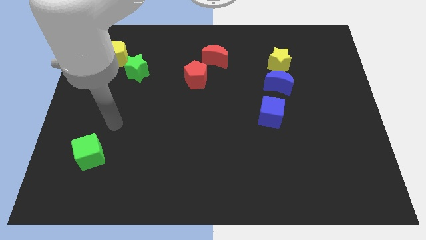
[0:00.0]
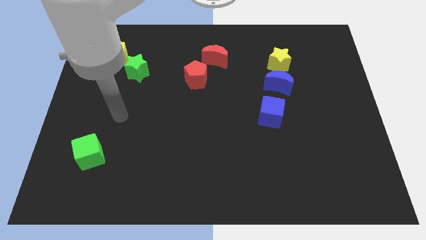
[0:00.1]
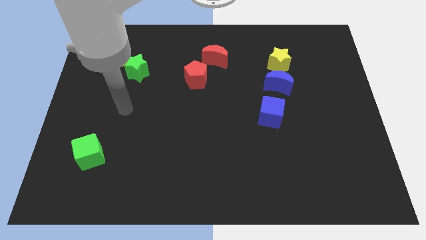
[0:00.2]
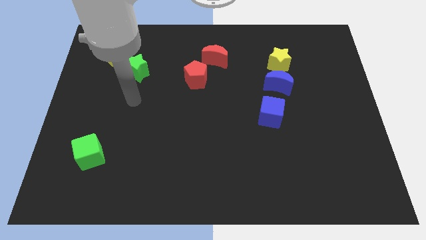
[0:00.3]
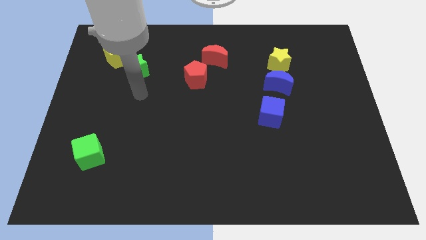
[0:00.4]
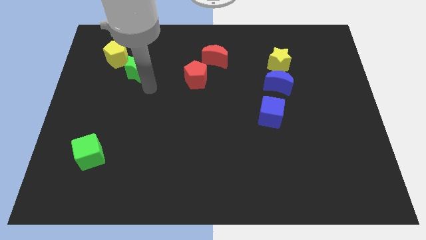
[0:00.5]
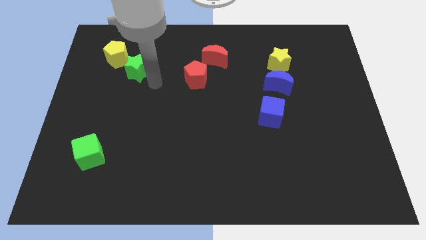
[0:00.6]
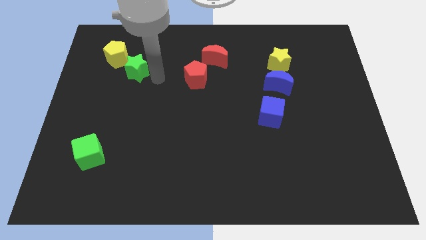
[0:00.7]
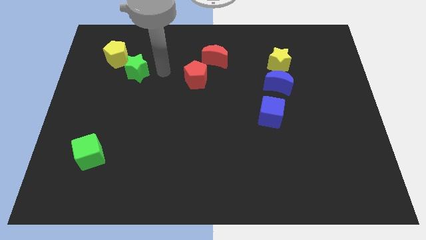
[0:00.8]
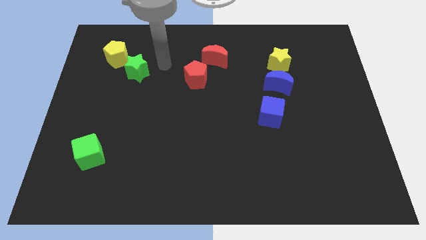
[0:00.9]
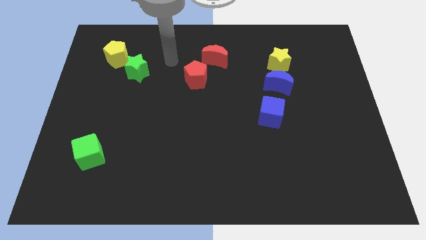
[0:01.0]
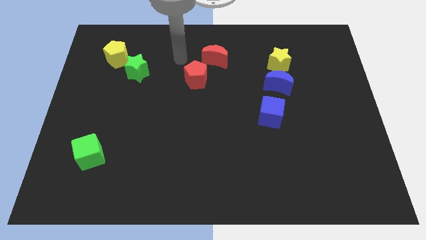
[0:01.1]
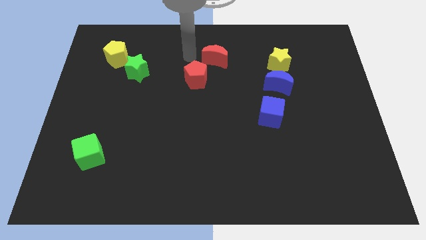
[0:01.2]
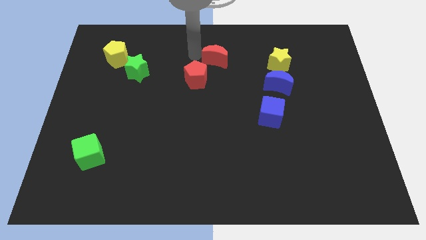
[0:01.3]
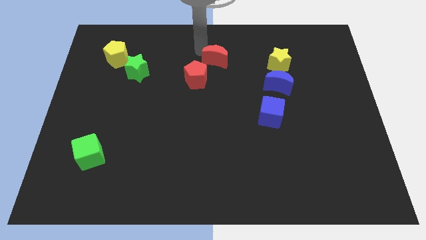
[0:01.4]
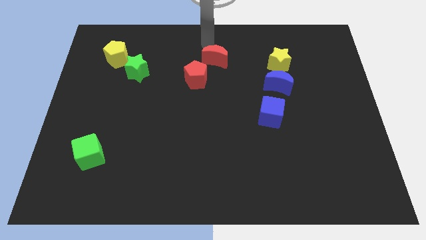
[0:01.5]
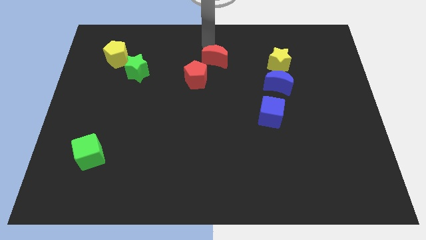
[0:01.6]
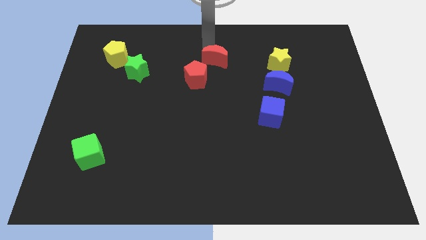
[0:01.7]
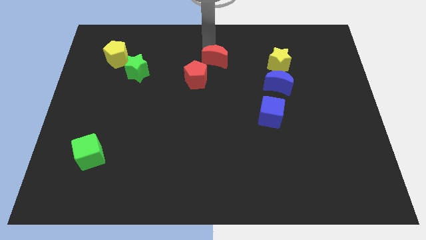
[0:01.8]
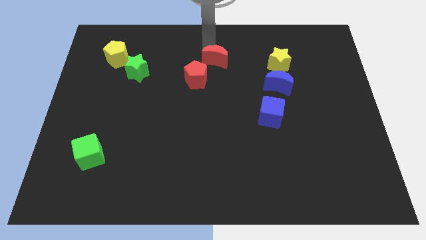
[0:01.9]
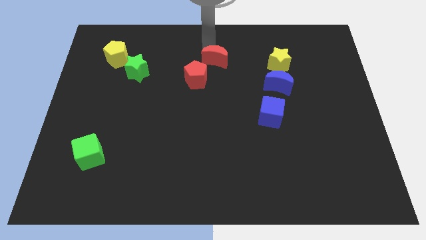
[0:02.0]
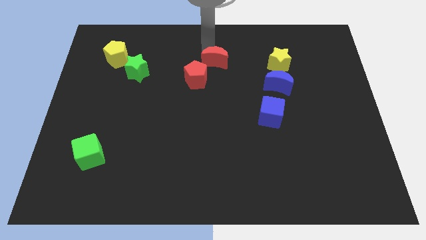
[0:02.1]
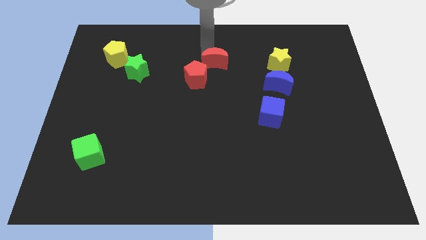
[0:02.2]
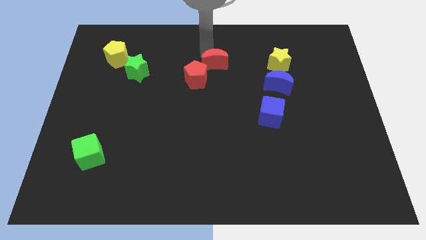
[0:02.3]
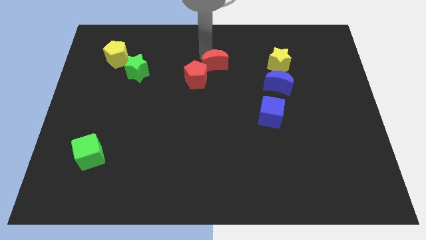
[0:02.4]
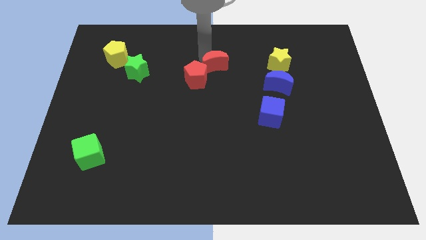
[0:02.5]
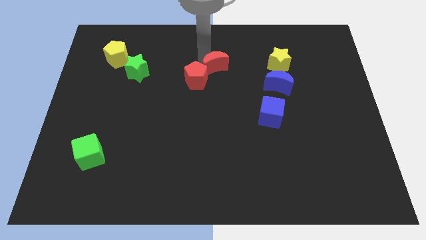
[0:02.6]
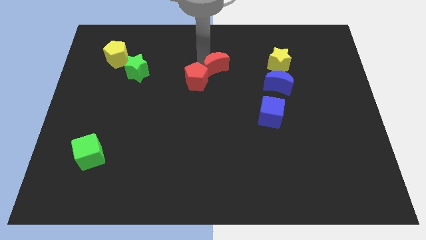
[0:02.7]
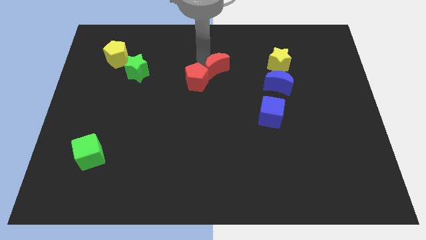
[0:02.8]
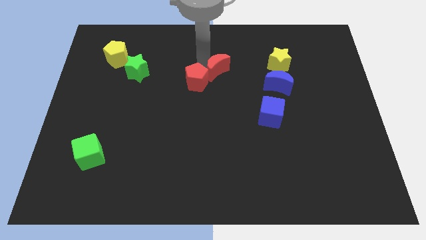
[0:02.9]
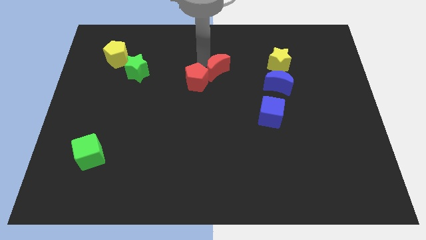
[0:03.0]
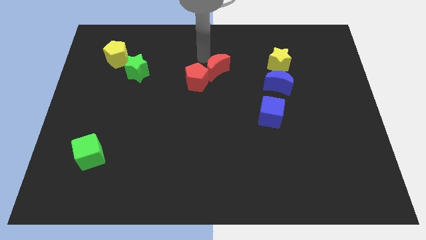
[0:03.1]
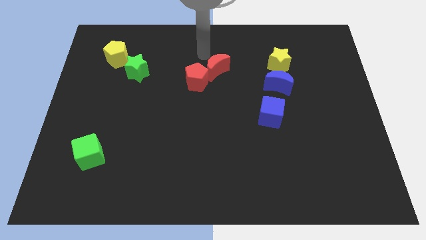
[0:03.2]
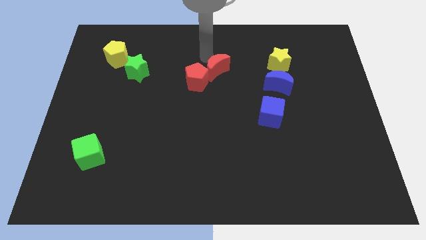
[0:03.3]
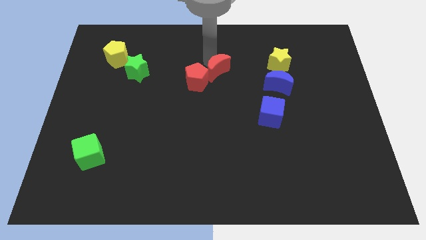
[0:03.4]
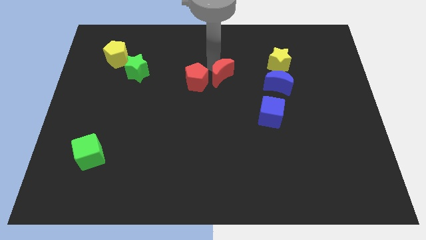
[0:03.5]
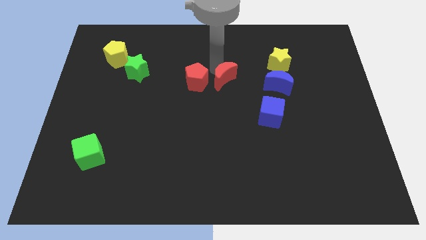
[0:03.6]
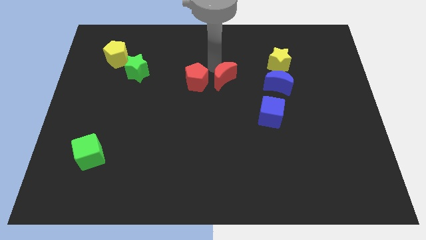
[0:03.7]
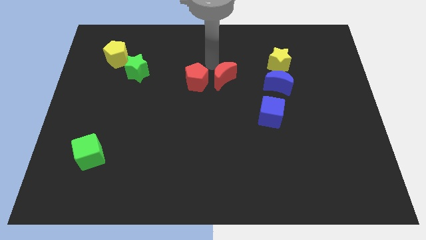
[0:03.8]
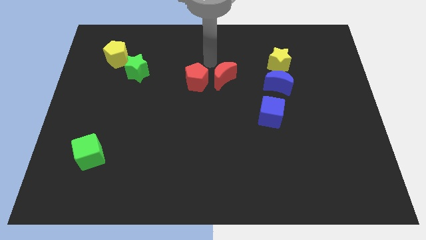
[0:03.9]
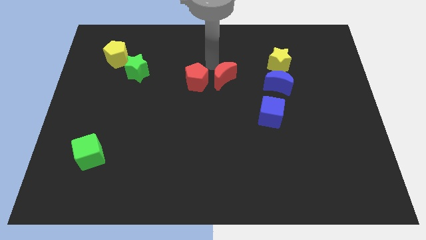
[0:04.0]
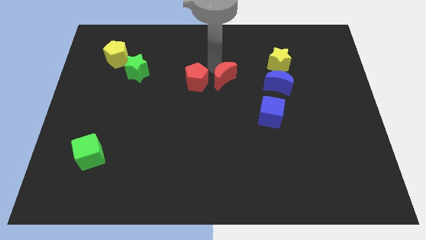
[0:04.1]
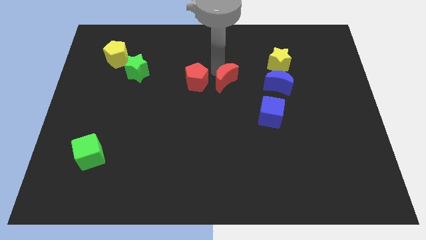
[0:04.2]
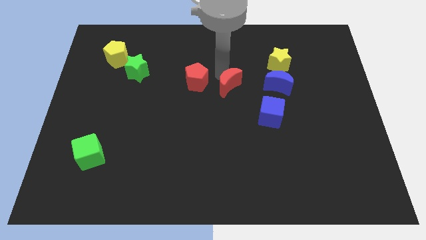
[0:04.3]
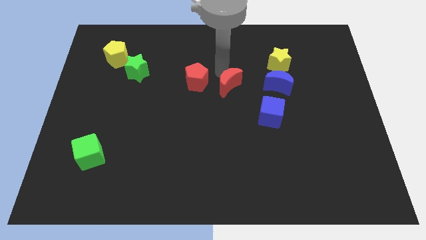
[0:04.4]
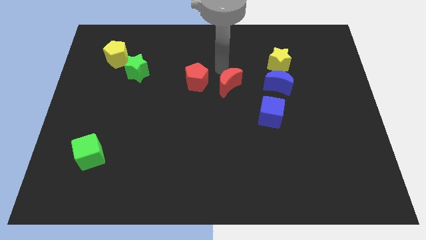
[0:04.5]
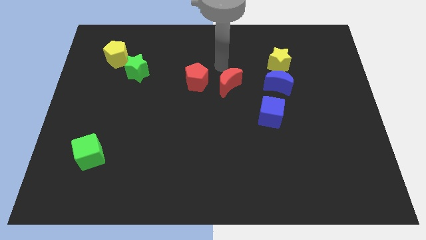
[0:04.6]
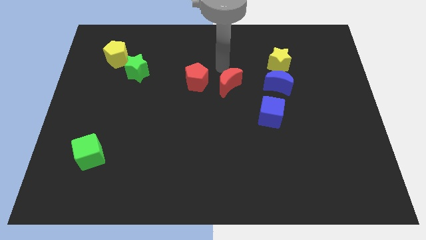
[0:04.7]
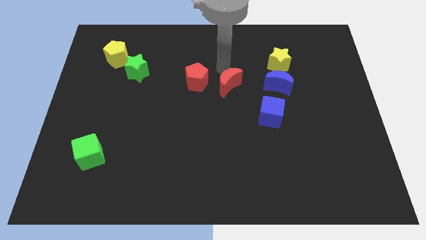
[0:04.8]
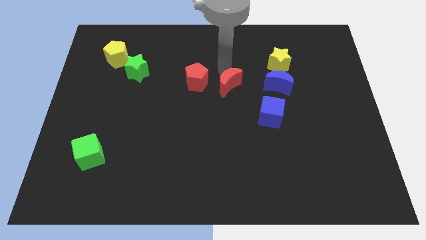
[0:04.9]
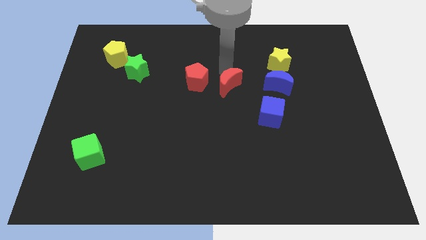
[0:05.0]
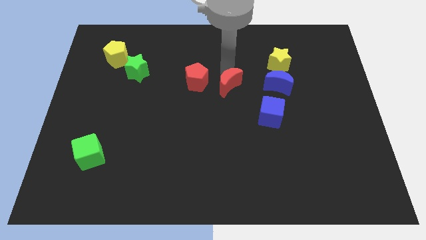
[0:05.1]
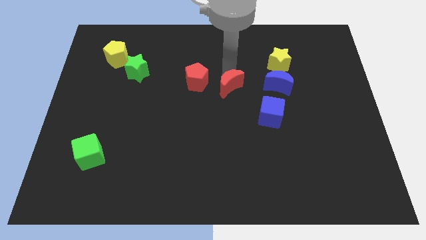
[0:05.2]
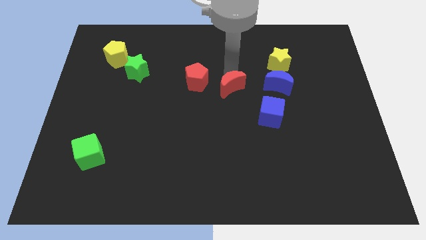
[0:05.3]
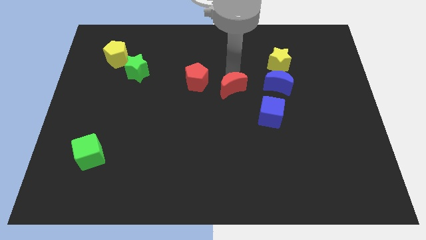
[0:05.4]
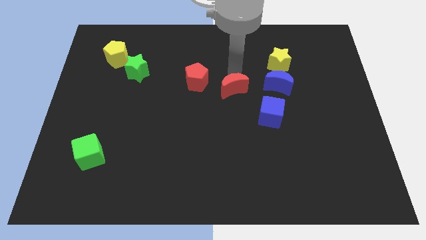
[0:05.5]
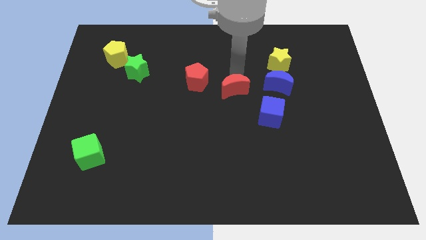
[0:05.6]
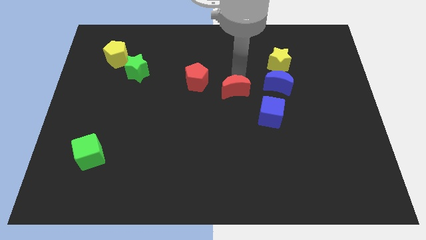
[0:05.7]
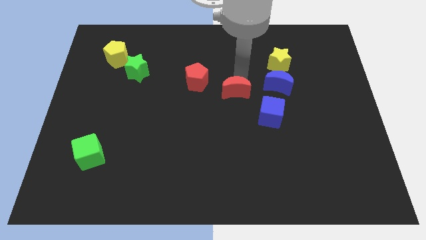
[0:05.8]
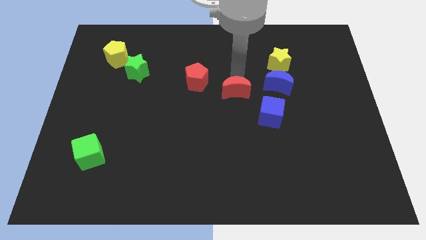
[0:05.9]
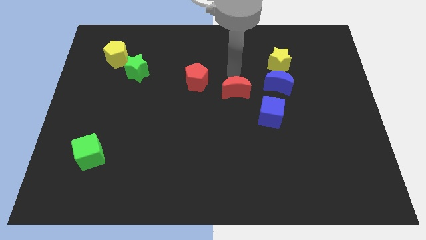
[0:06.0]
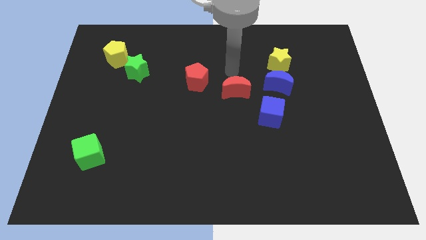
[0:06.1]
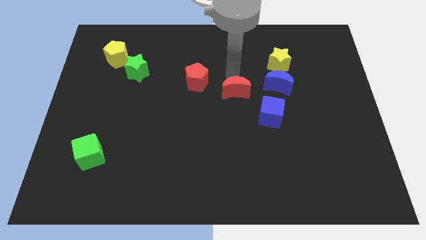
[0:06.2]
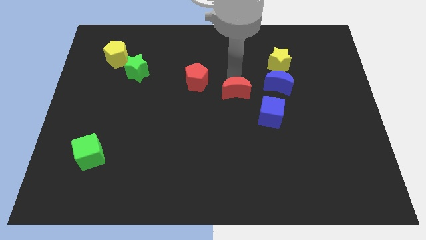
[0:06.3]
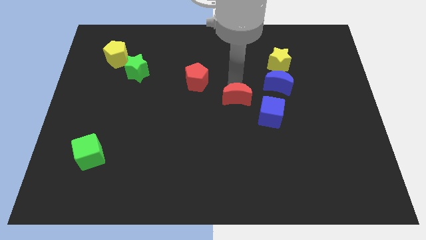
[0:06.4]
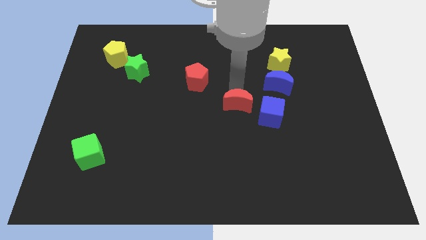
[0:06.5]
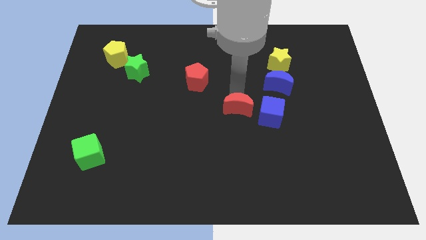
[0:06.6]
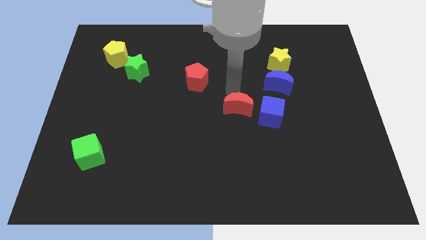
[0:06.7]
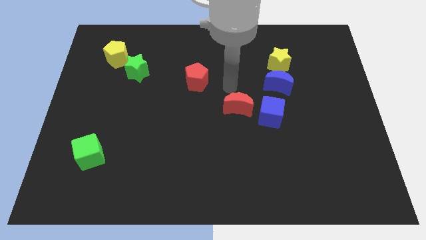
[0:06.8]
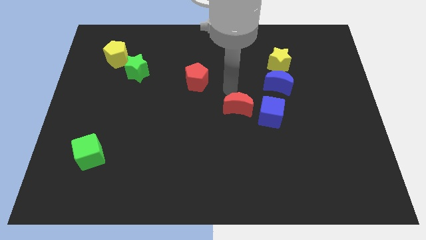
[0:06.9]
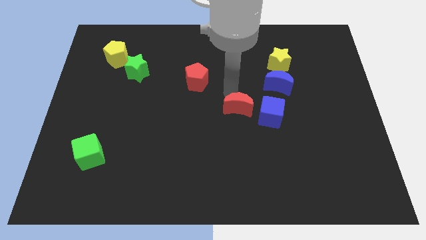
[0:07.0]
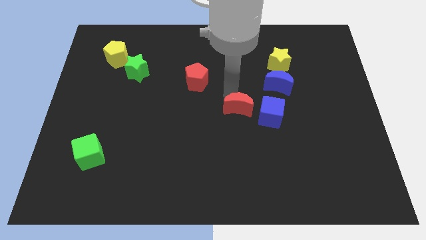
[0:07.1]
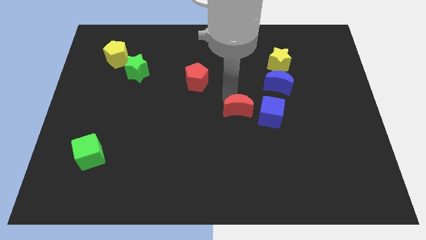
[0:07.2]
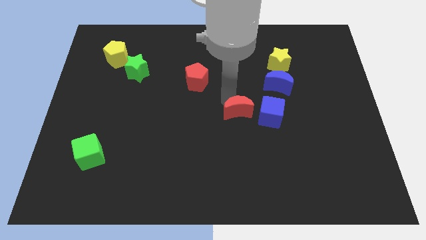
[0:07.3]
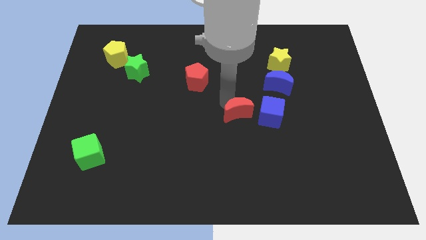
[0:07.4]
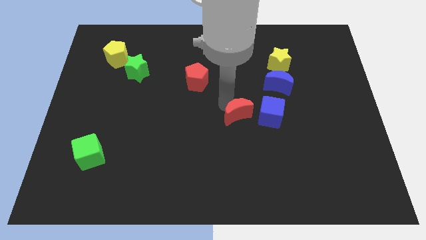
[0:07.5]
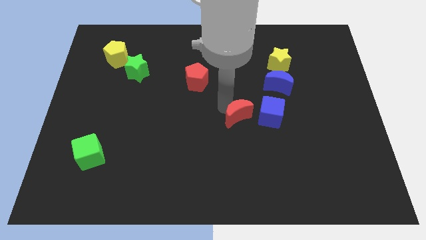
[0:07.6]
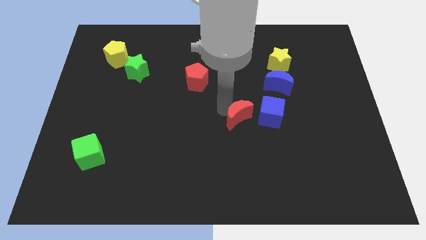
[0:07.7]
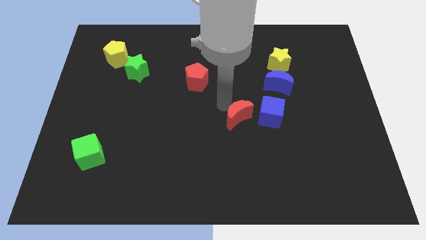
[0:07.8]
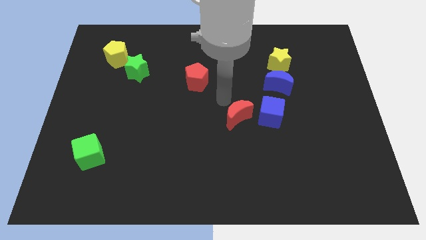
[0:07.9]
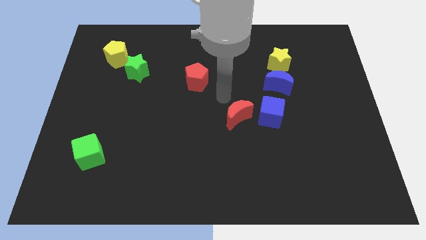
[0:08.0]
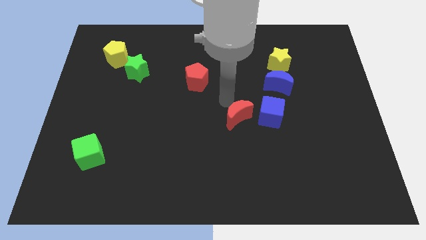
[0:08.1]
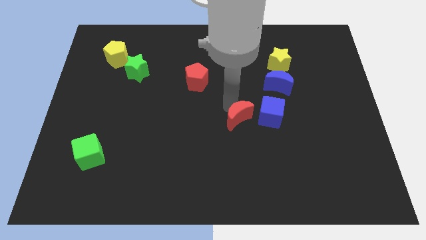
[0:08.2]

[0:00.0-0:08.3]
slide the red moon to the bottom left of the blue cube
